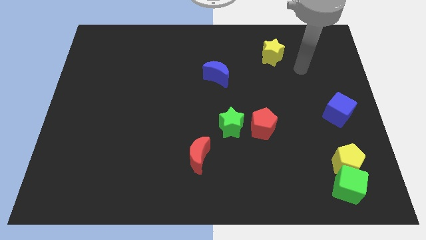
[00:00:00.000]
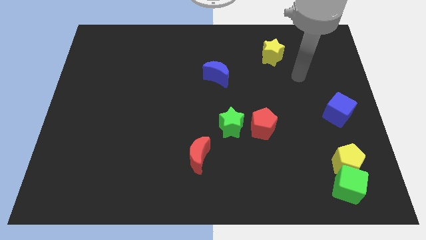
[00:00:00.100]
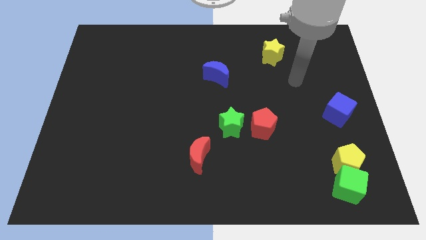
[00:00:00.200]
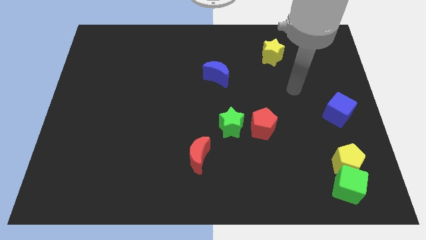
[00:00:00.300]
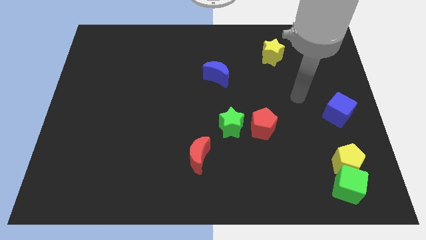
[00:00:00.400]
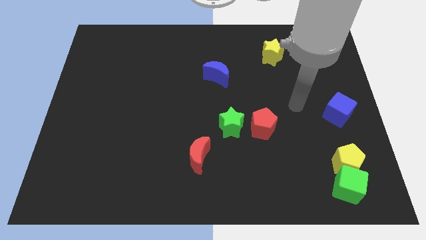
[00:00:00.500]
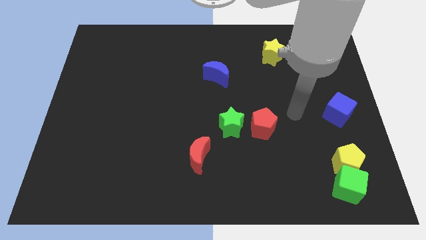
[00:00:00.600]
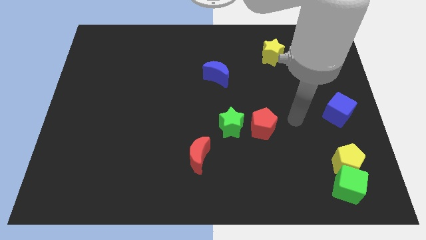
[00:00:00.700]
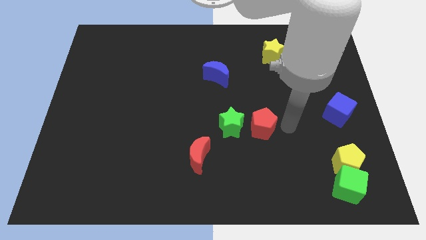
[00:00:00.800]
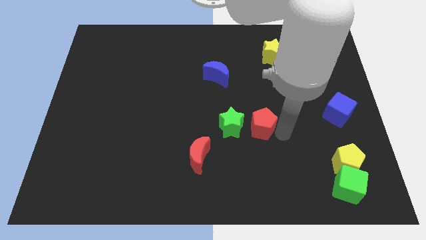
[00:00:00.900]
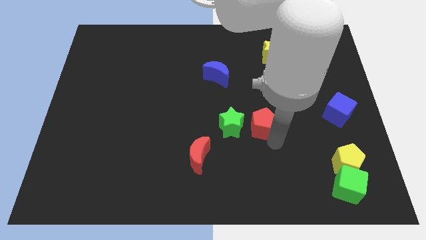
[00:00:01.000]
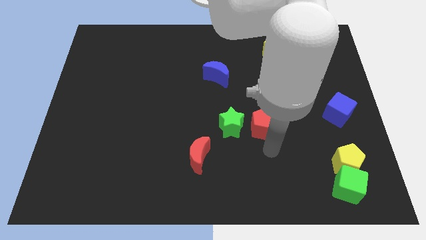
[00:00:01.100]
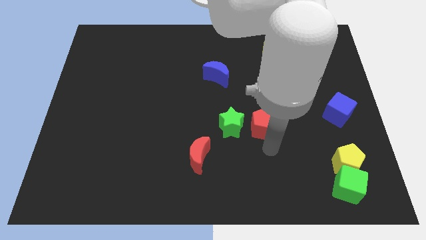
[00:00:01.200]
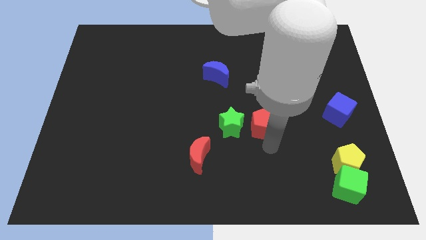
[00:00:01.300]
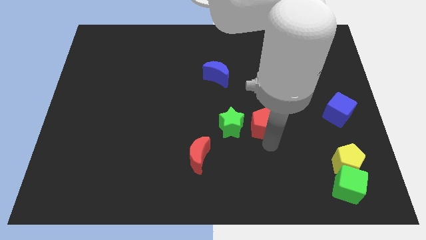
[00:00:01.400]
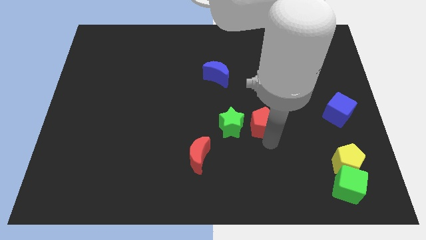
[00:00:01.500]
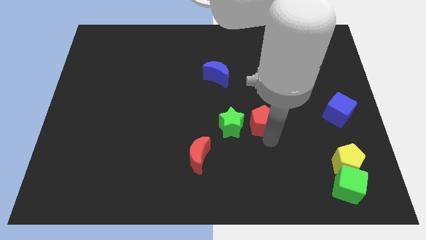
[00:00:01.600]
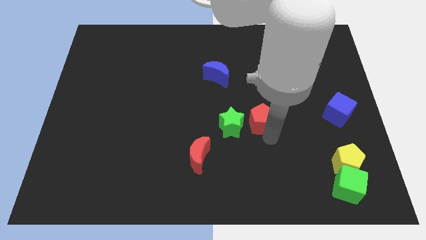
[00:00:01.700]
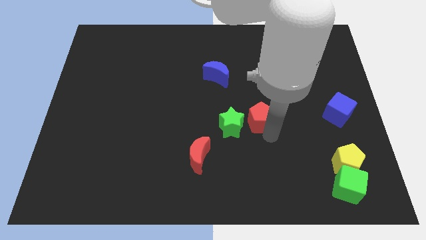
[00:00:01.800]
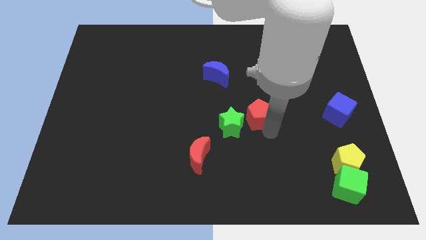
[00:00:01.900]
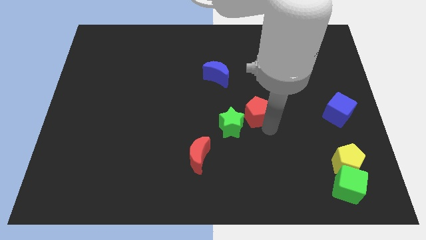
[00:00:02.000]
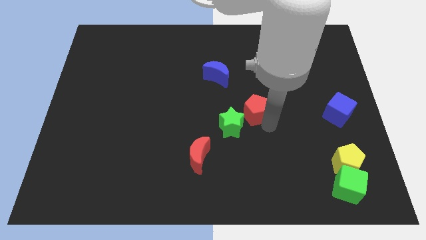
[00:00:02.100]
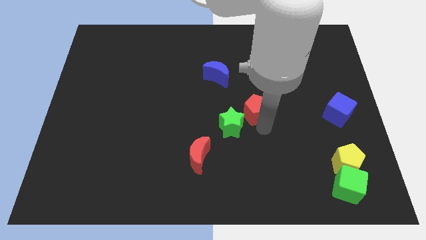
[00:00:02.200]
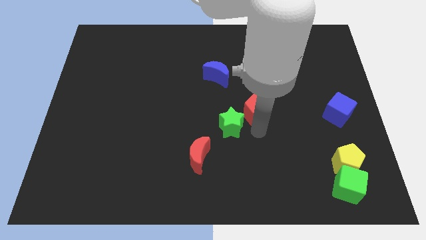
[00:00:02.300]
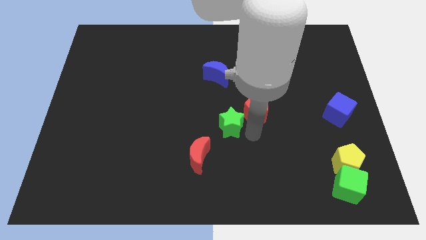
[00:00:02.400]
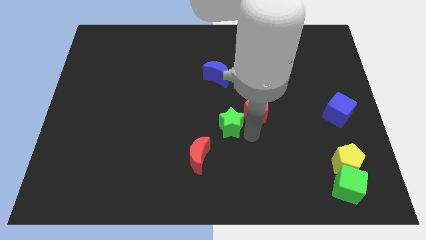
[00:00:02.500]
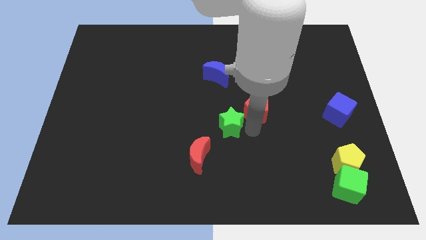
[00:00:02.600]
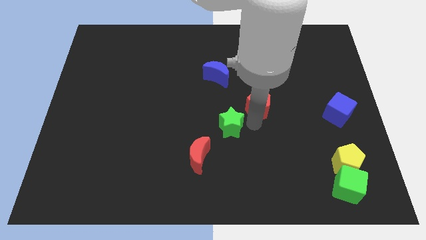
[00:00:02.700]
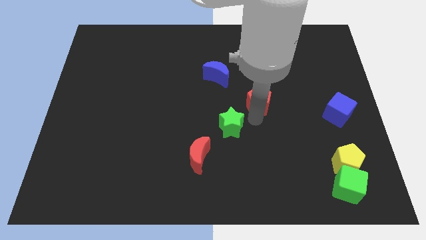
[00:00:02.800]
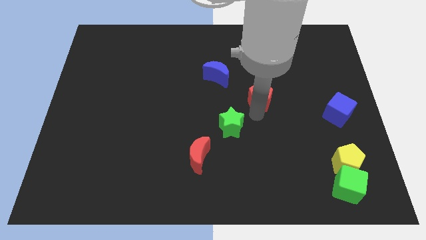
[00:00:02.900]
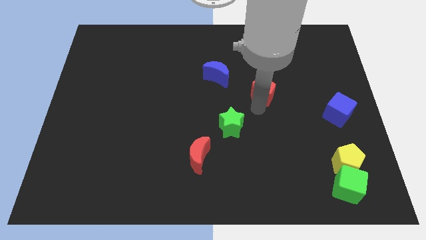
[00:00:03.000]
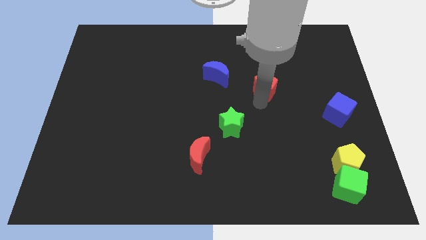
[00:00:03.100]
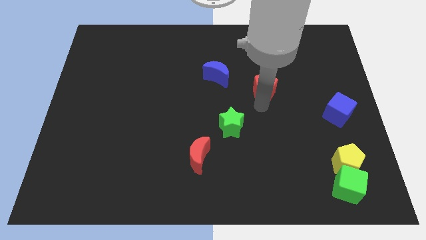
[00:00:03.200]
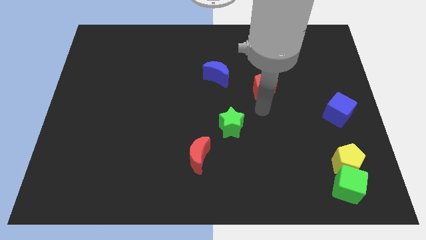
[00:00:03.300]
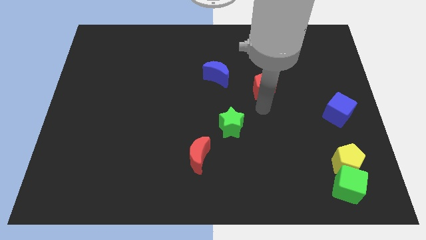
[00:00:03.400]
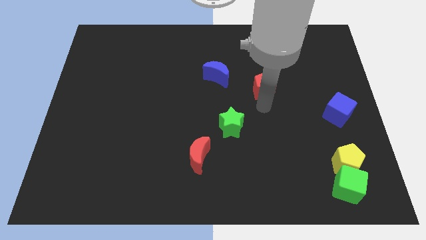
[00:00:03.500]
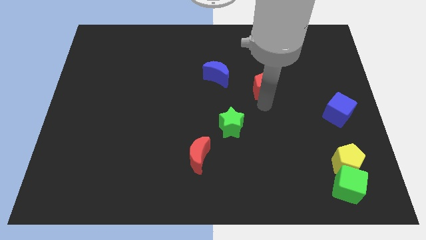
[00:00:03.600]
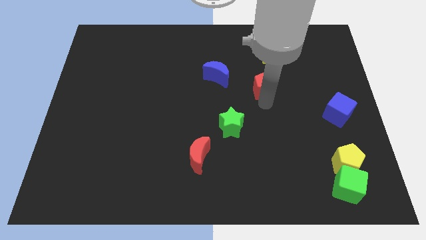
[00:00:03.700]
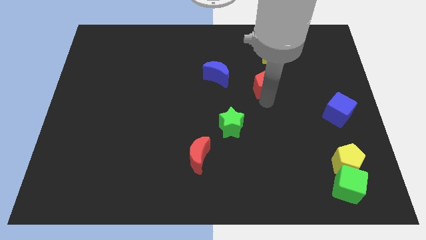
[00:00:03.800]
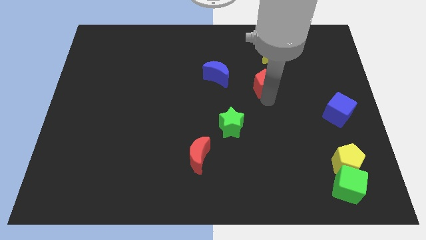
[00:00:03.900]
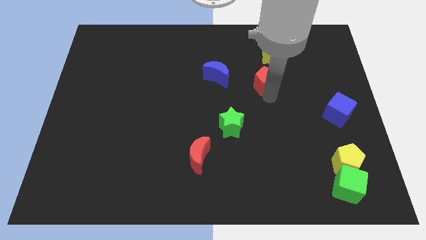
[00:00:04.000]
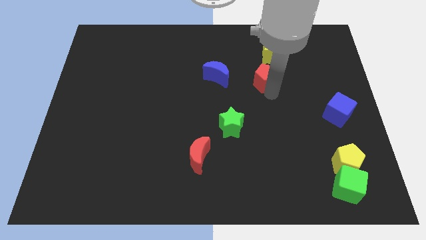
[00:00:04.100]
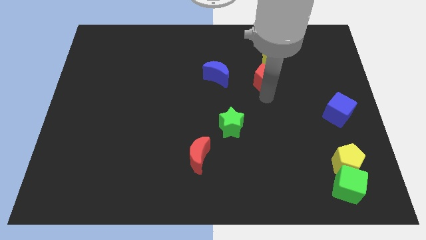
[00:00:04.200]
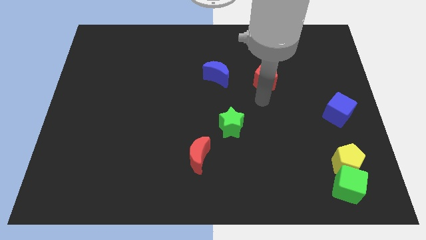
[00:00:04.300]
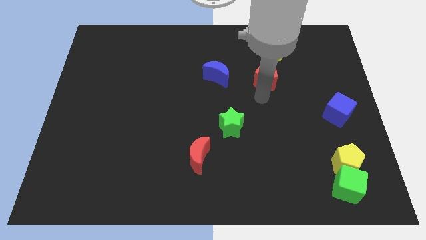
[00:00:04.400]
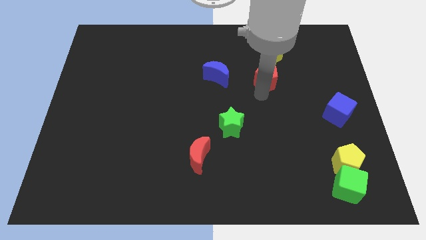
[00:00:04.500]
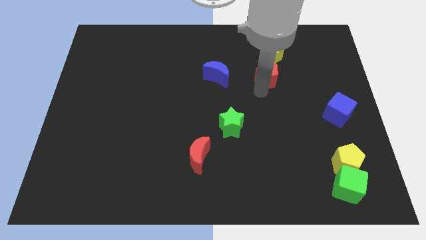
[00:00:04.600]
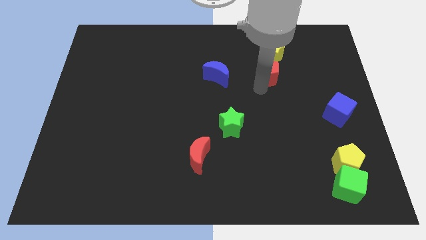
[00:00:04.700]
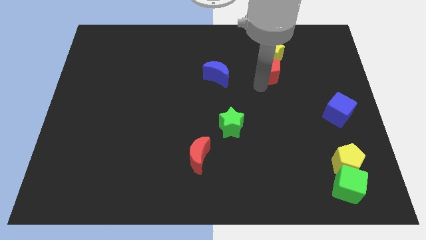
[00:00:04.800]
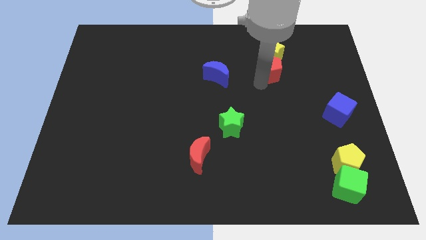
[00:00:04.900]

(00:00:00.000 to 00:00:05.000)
put the red pentagon next to the yellow star

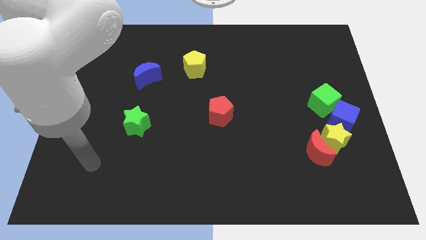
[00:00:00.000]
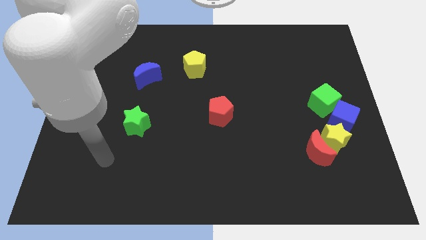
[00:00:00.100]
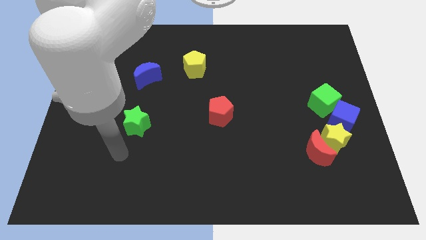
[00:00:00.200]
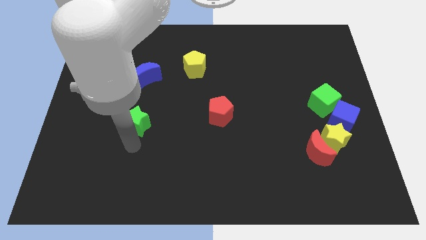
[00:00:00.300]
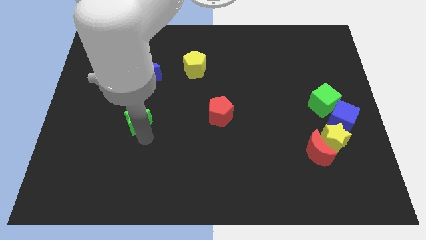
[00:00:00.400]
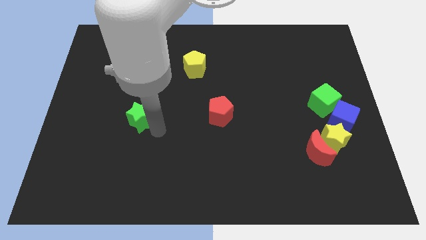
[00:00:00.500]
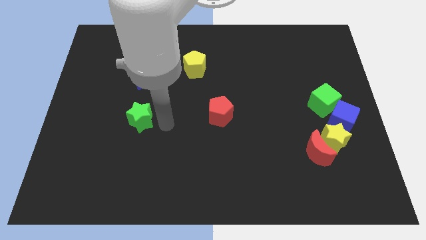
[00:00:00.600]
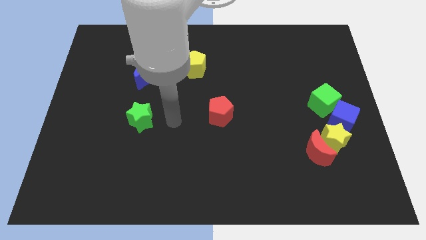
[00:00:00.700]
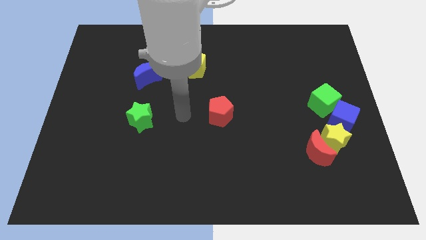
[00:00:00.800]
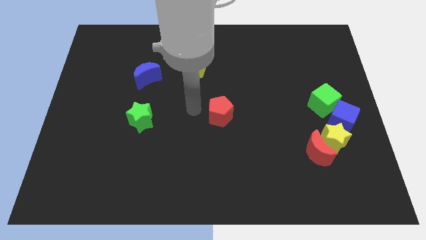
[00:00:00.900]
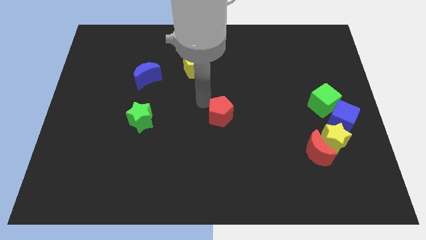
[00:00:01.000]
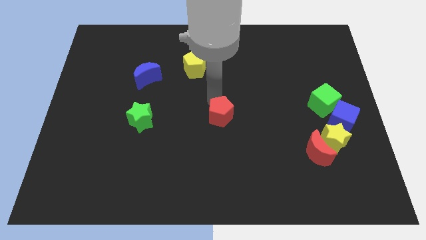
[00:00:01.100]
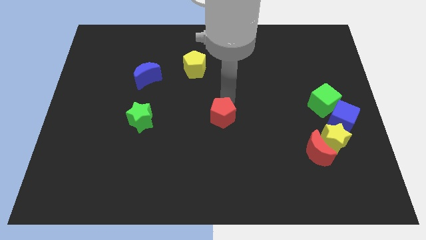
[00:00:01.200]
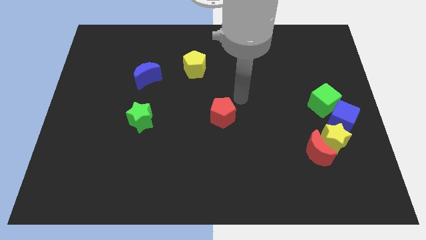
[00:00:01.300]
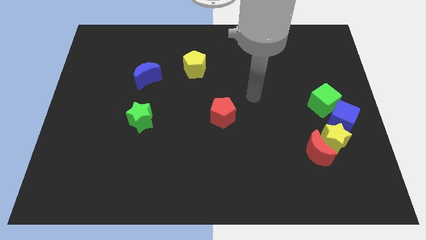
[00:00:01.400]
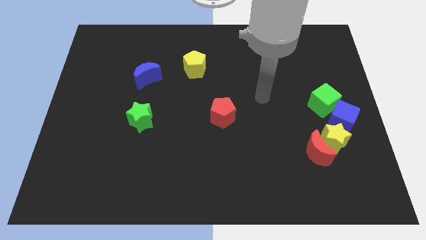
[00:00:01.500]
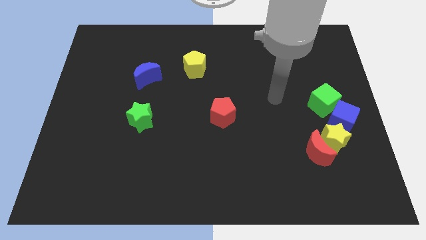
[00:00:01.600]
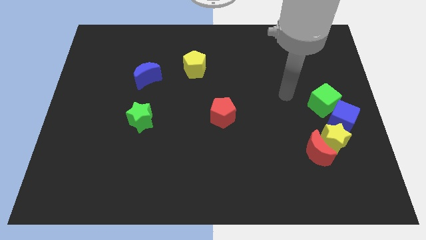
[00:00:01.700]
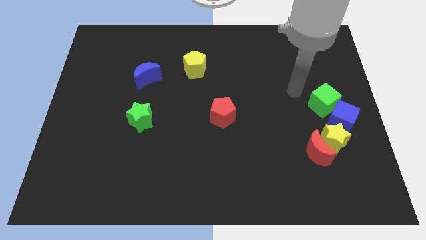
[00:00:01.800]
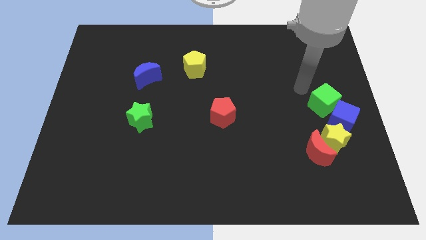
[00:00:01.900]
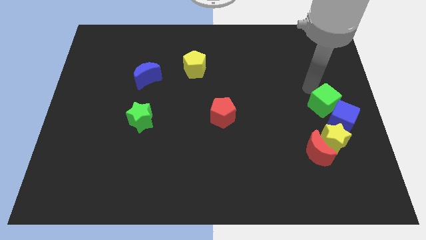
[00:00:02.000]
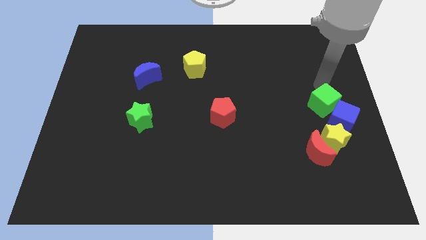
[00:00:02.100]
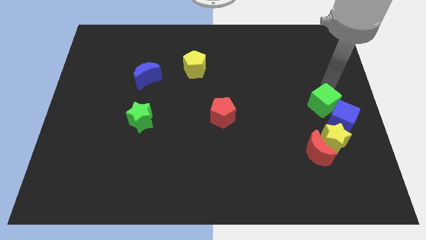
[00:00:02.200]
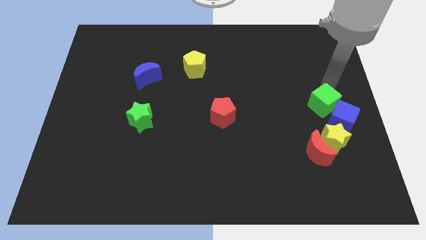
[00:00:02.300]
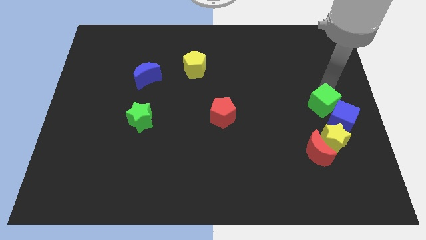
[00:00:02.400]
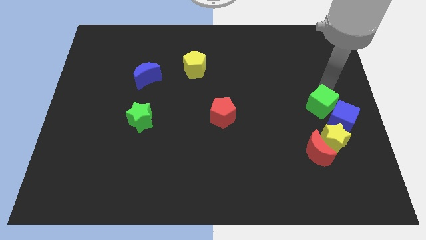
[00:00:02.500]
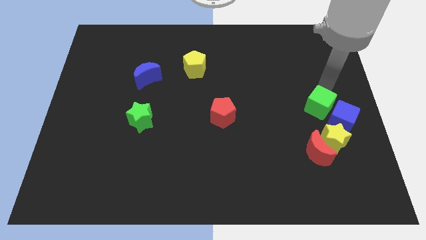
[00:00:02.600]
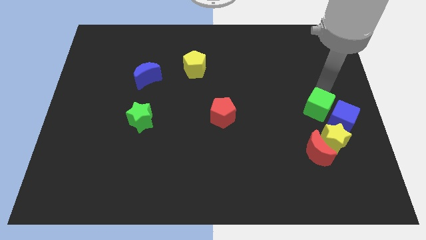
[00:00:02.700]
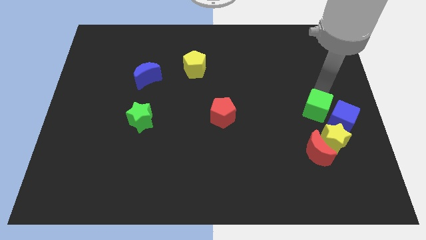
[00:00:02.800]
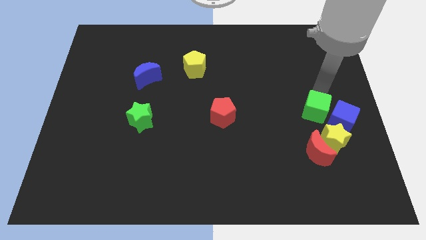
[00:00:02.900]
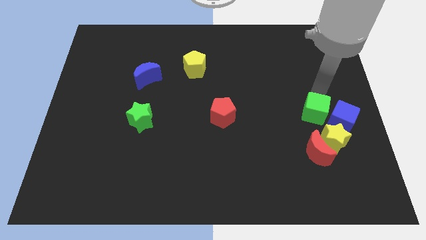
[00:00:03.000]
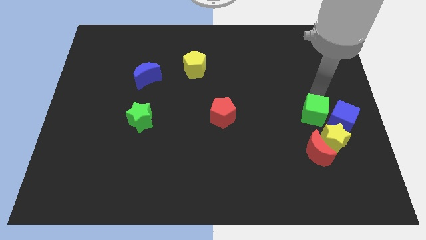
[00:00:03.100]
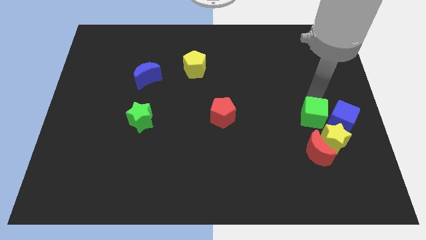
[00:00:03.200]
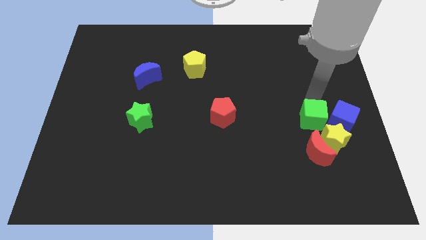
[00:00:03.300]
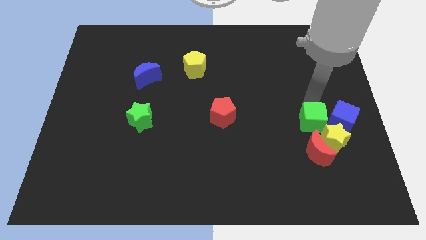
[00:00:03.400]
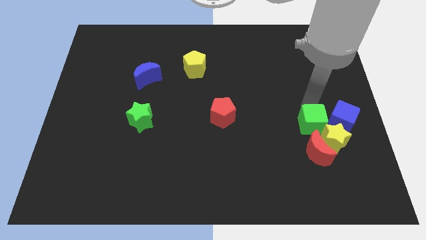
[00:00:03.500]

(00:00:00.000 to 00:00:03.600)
push the green cube towards the yellow star
